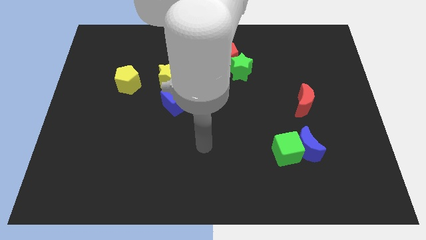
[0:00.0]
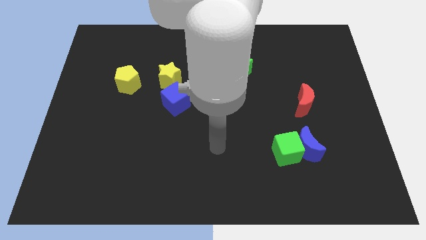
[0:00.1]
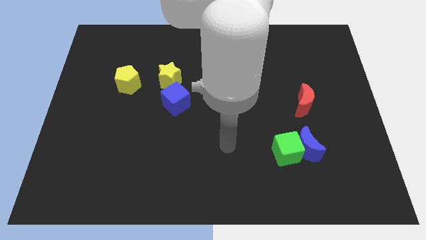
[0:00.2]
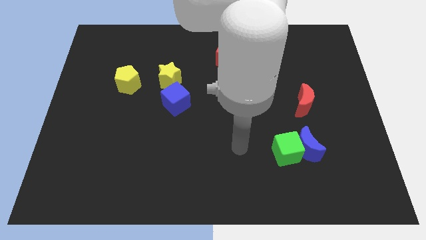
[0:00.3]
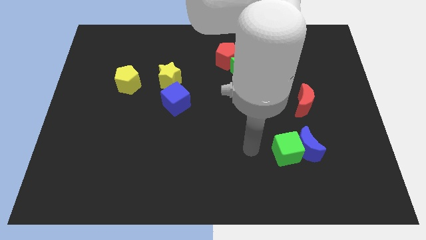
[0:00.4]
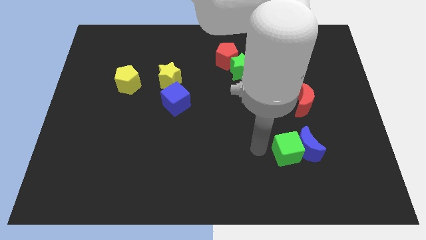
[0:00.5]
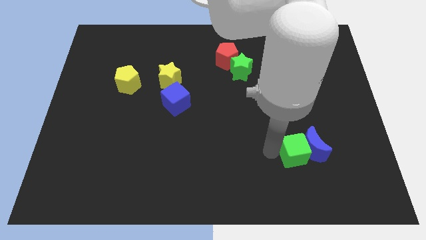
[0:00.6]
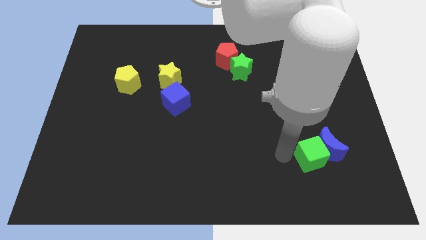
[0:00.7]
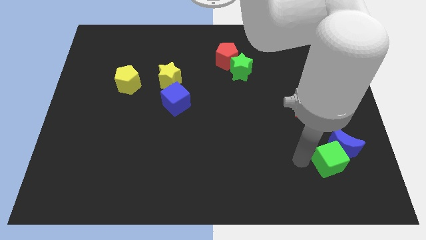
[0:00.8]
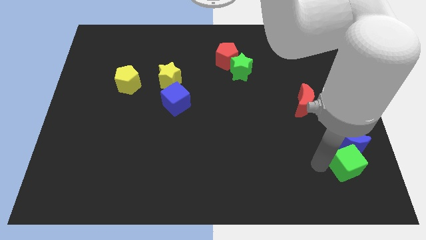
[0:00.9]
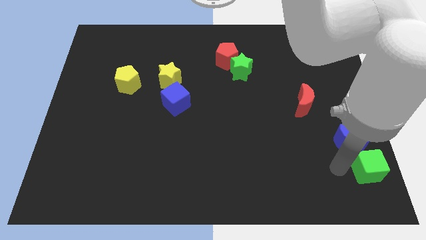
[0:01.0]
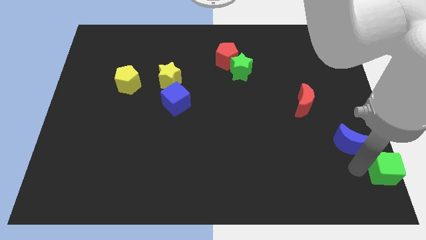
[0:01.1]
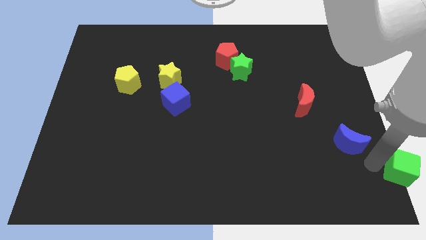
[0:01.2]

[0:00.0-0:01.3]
move the blue moon away from the green cube

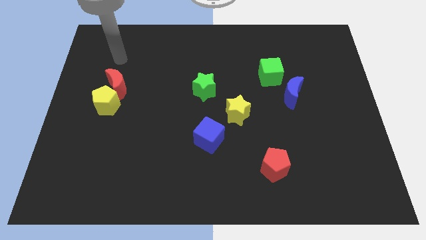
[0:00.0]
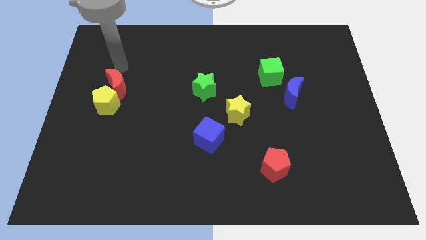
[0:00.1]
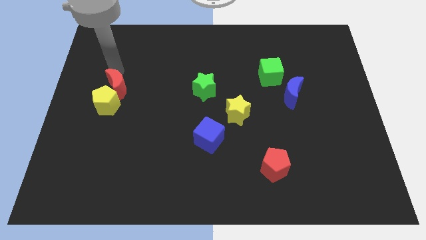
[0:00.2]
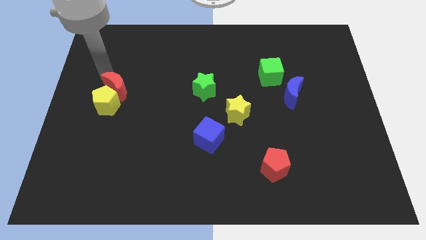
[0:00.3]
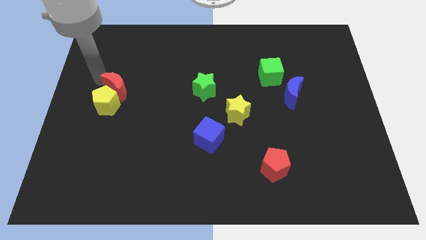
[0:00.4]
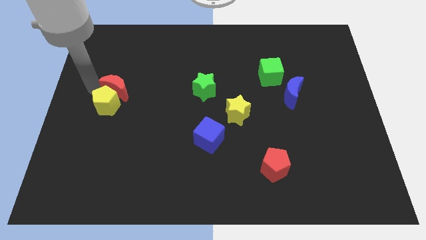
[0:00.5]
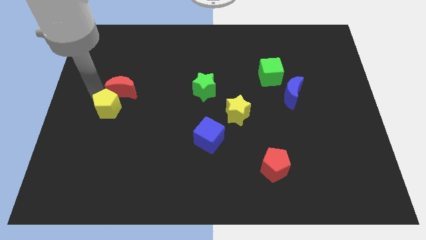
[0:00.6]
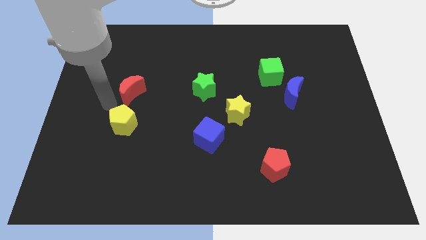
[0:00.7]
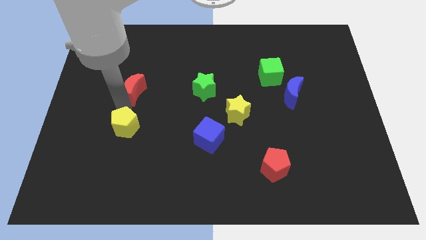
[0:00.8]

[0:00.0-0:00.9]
move the red moon away from the yellow pentagon

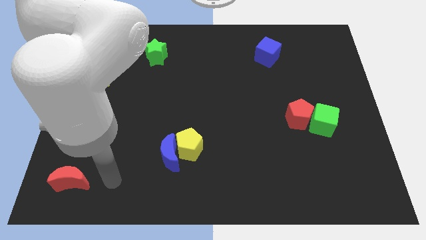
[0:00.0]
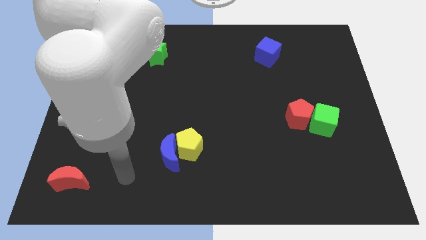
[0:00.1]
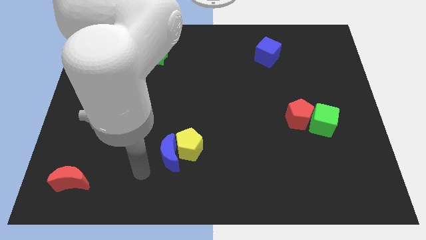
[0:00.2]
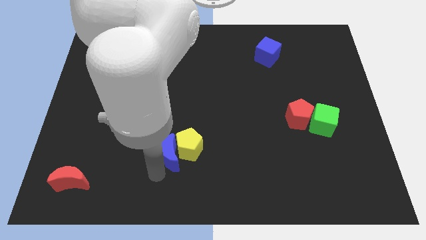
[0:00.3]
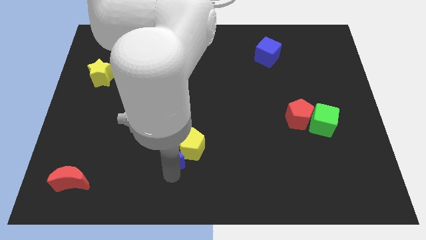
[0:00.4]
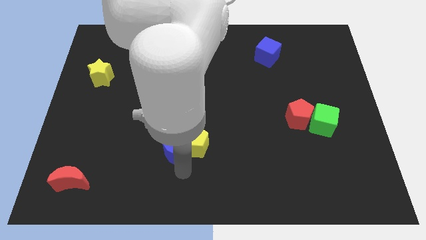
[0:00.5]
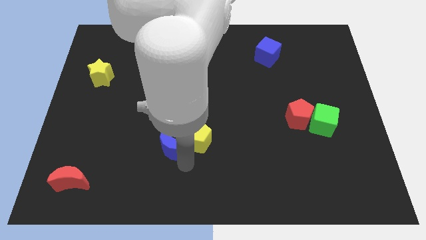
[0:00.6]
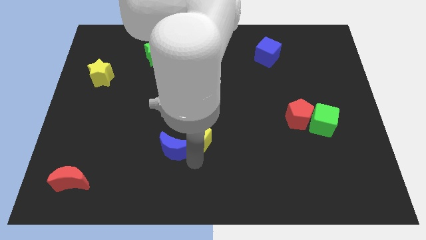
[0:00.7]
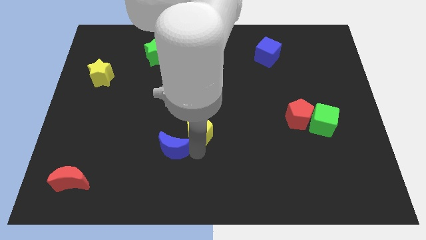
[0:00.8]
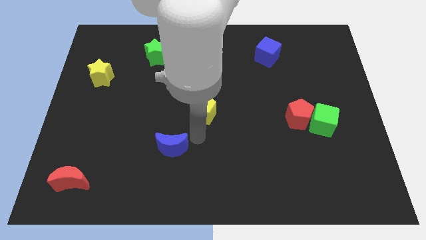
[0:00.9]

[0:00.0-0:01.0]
pull the blue moon apart from the yellow pentagon

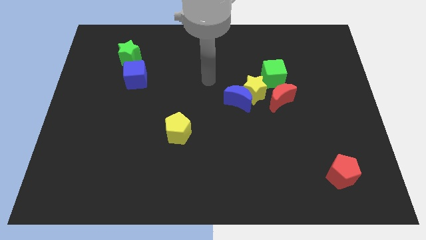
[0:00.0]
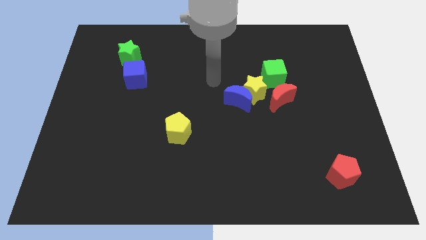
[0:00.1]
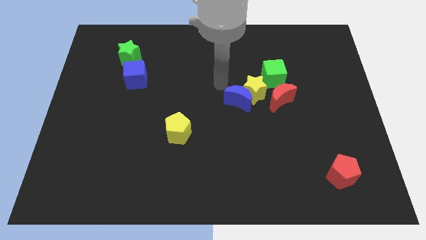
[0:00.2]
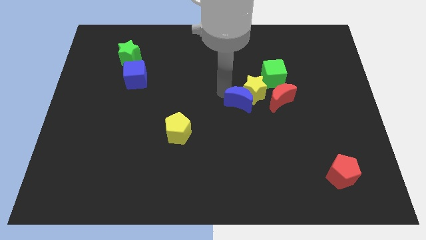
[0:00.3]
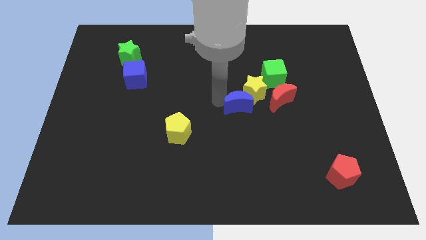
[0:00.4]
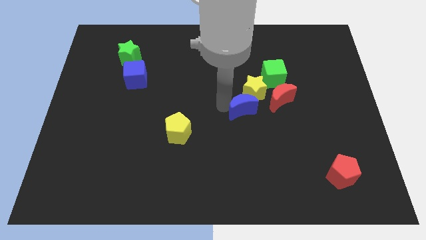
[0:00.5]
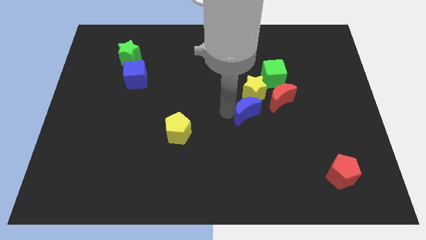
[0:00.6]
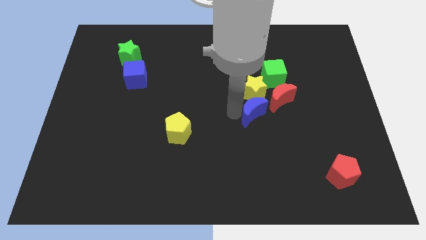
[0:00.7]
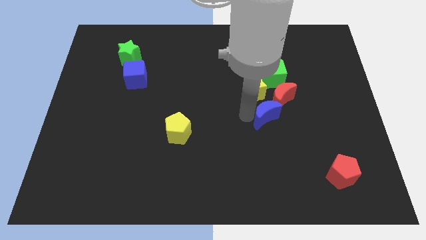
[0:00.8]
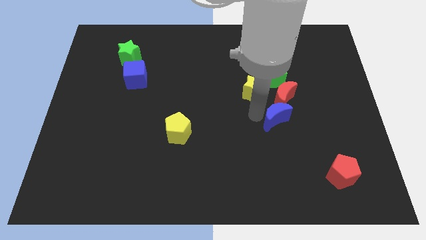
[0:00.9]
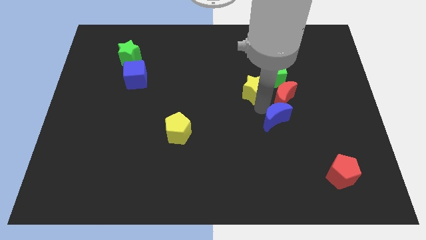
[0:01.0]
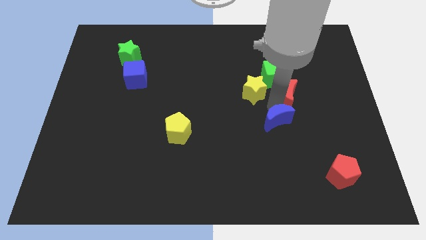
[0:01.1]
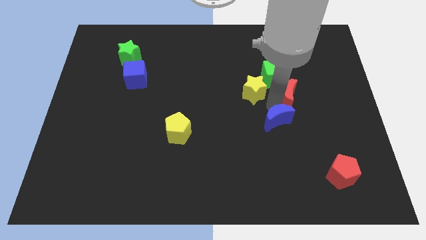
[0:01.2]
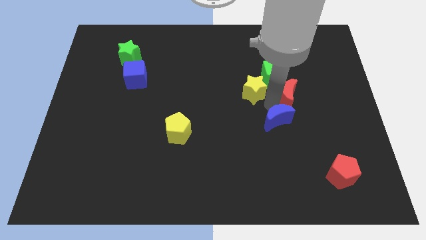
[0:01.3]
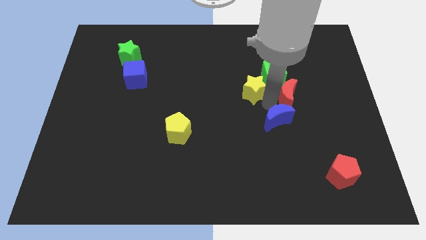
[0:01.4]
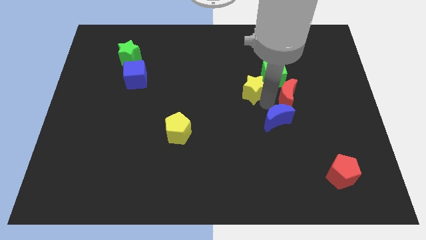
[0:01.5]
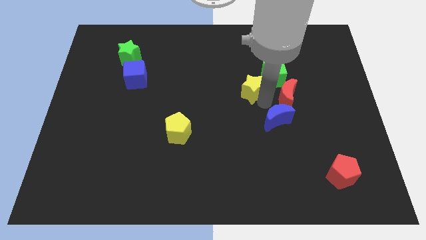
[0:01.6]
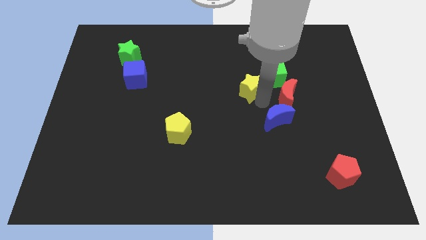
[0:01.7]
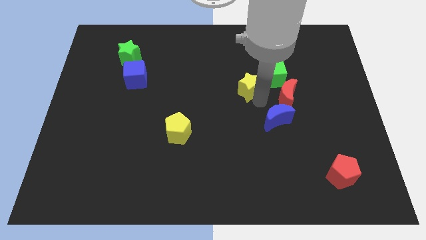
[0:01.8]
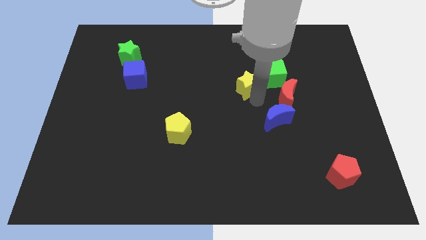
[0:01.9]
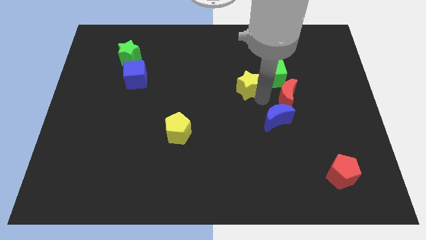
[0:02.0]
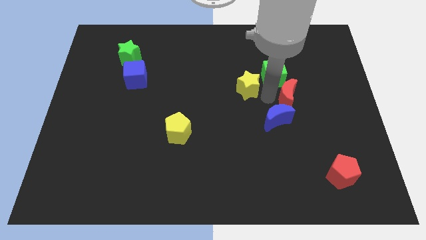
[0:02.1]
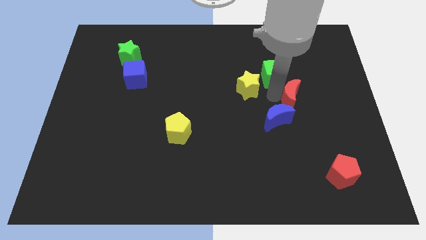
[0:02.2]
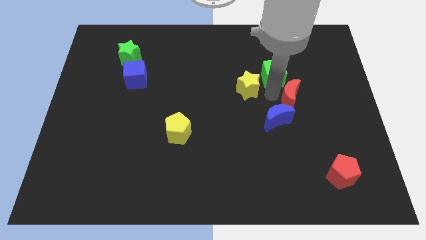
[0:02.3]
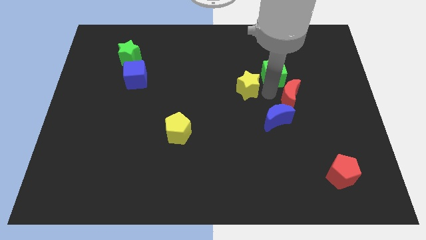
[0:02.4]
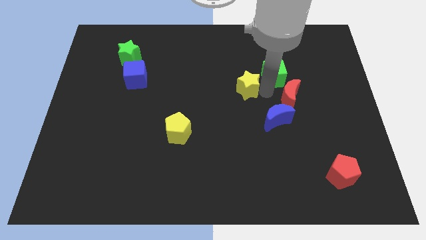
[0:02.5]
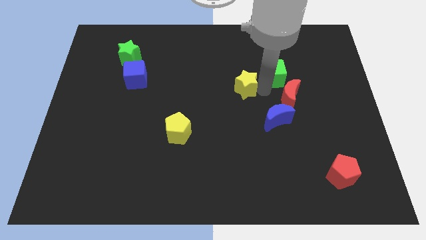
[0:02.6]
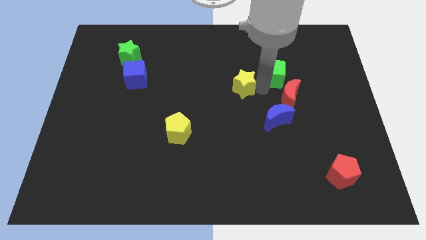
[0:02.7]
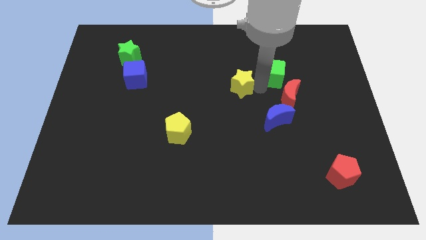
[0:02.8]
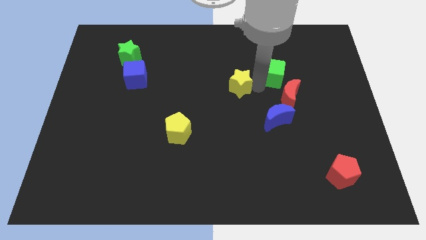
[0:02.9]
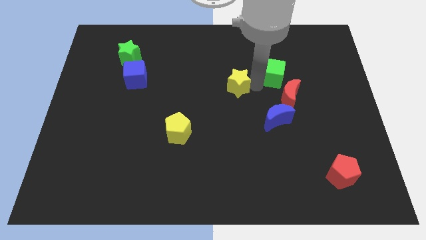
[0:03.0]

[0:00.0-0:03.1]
pull the yellow star apart from the group of blocks

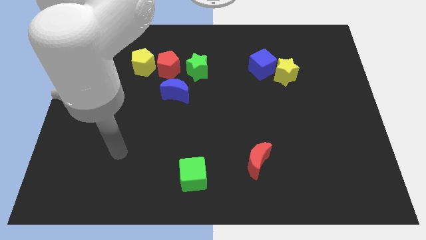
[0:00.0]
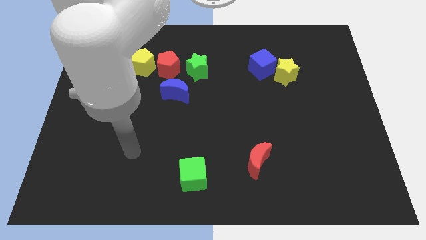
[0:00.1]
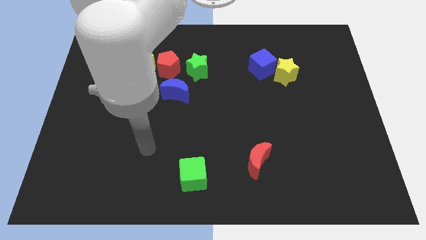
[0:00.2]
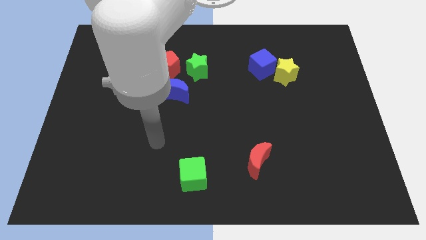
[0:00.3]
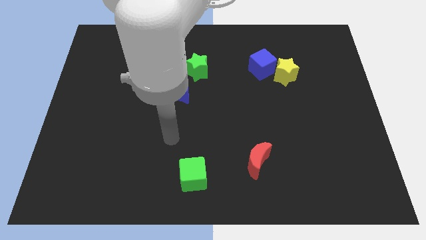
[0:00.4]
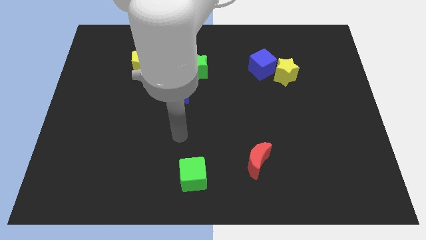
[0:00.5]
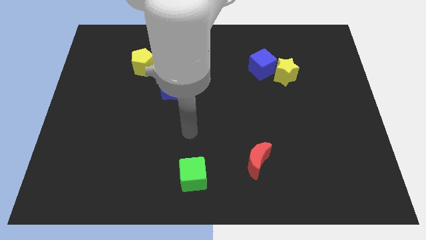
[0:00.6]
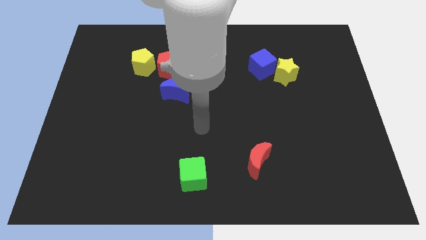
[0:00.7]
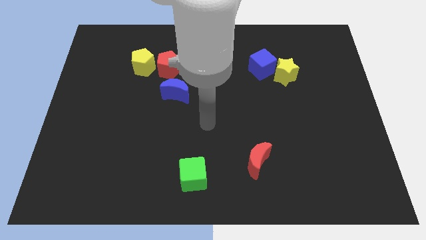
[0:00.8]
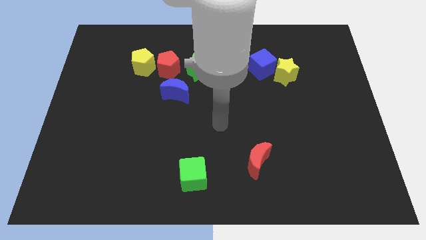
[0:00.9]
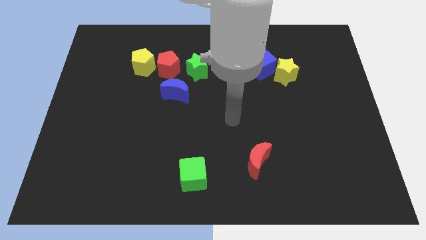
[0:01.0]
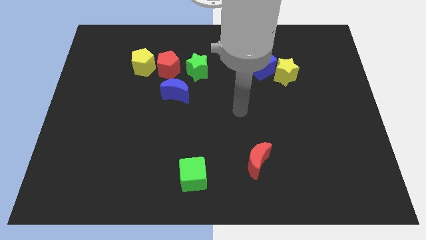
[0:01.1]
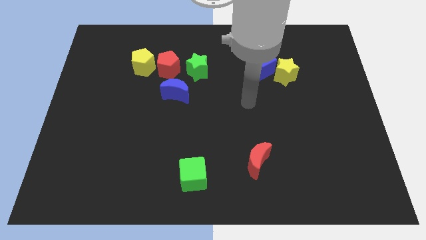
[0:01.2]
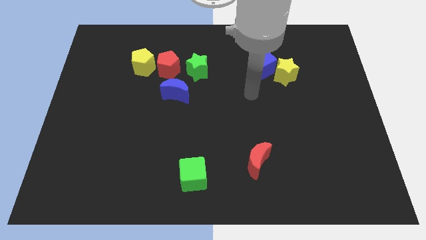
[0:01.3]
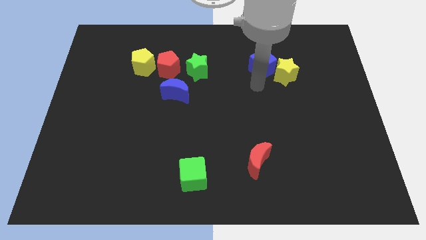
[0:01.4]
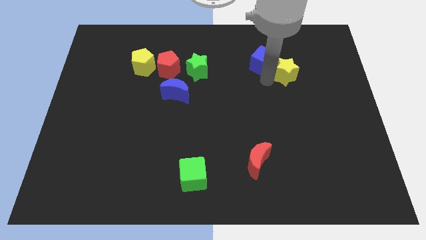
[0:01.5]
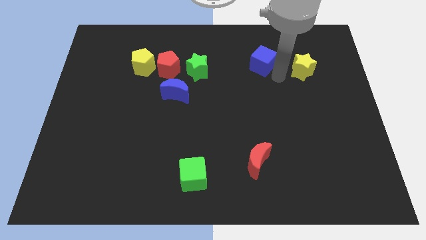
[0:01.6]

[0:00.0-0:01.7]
pull the blue cube apart from the yellow star

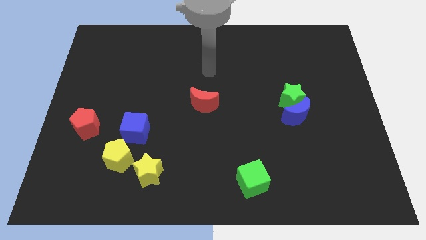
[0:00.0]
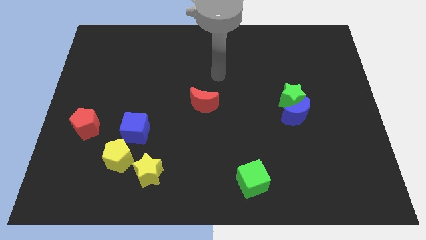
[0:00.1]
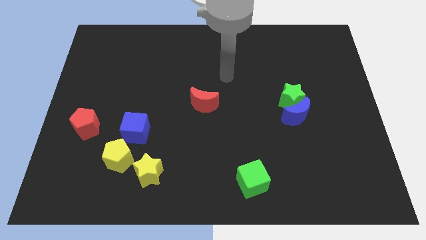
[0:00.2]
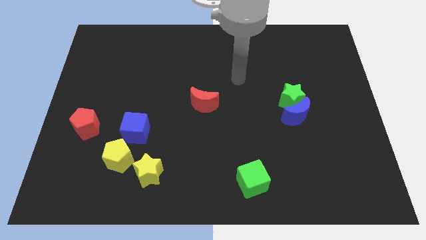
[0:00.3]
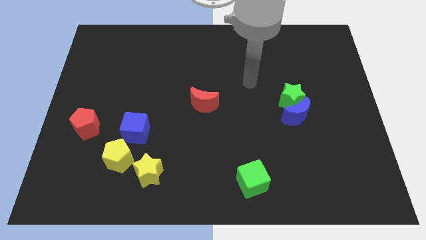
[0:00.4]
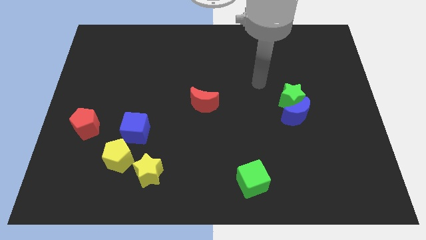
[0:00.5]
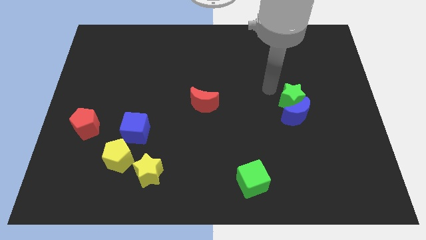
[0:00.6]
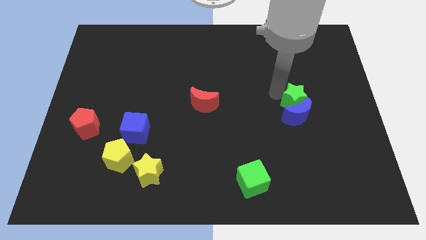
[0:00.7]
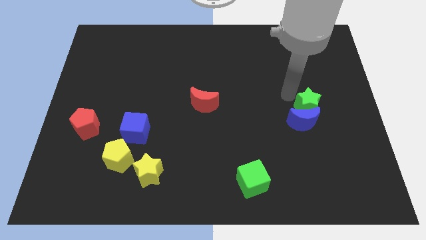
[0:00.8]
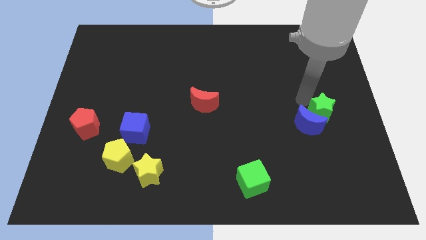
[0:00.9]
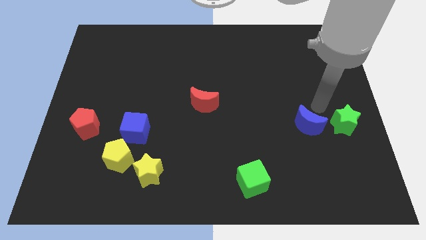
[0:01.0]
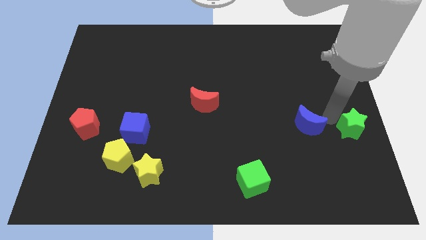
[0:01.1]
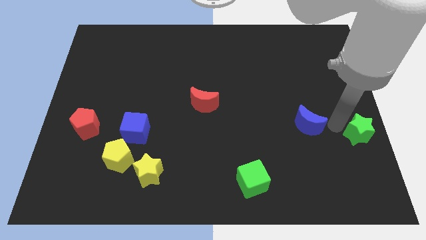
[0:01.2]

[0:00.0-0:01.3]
separate the blue moon from the green star

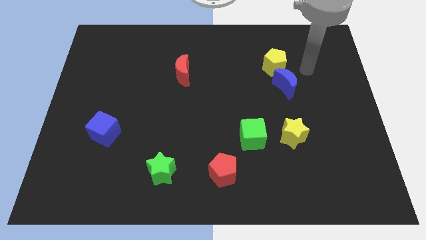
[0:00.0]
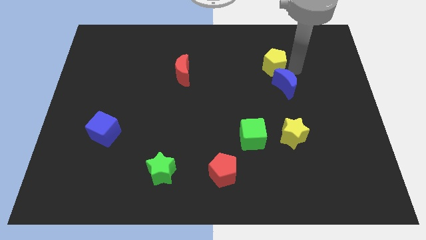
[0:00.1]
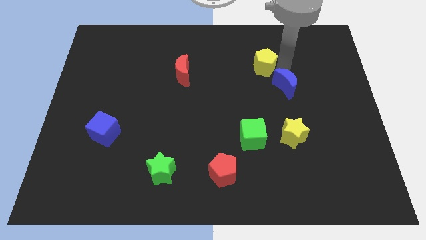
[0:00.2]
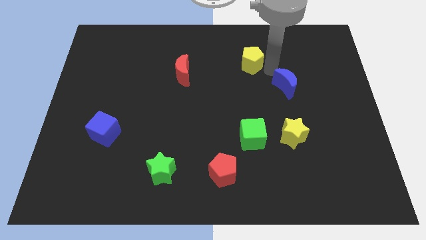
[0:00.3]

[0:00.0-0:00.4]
separate the blue moon from the yellow pentagon
